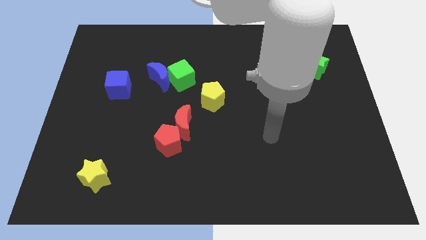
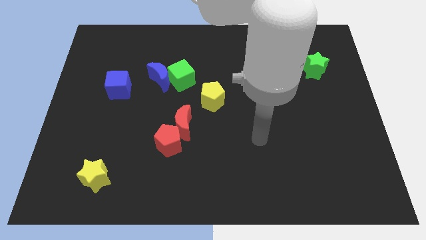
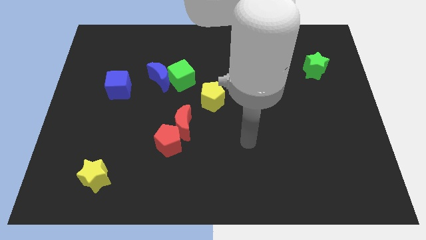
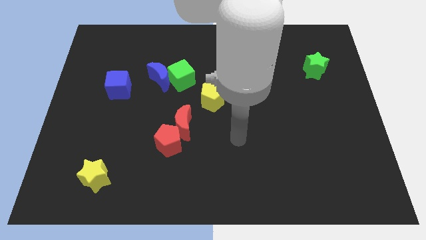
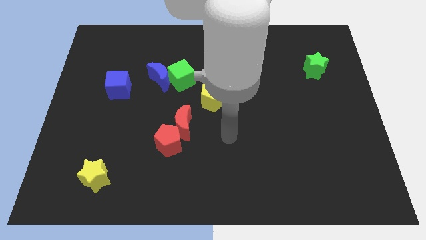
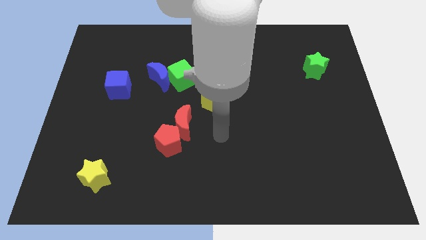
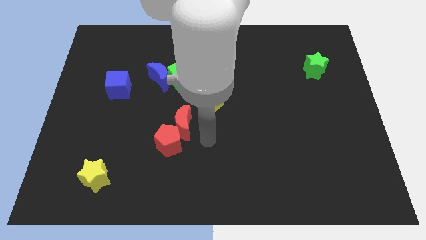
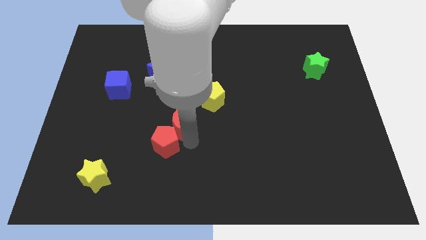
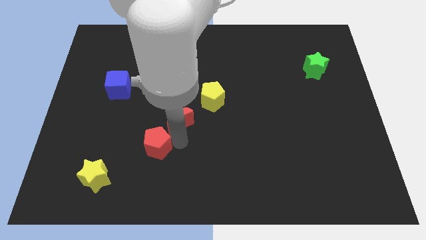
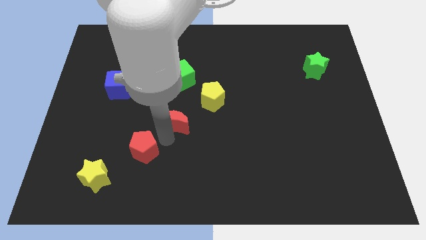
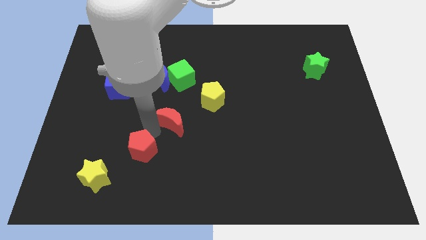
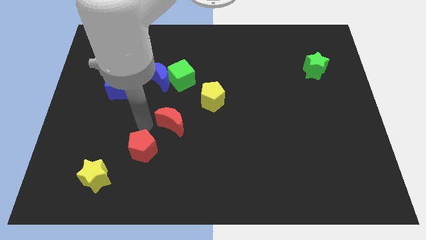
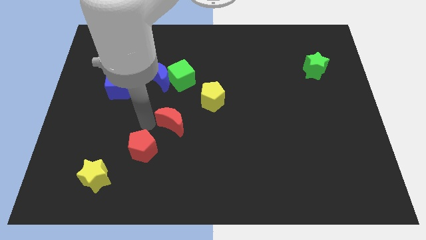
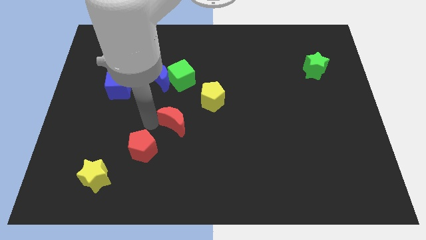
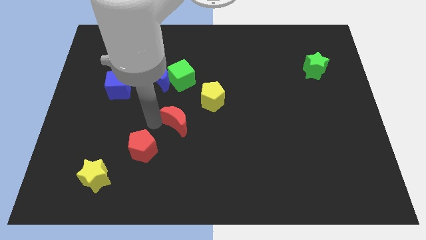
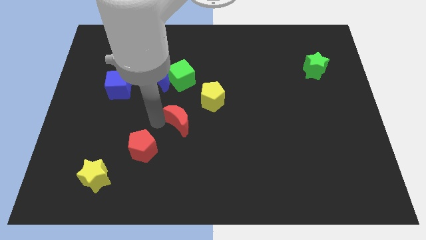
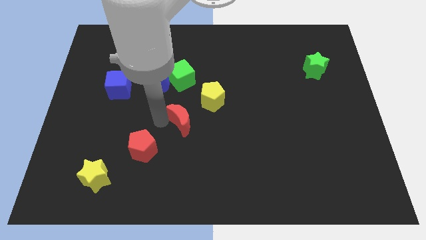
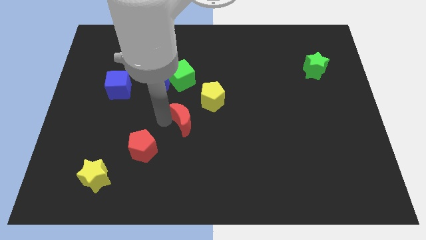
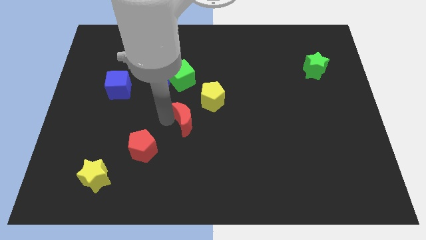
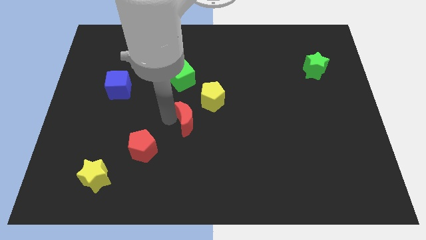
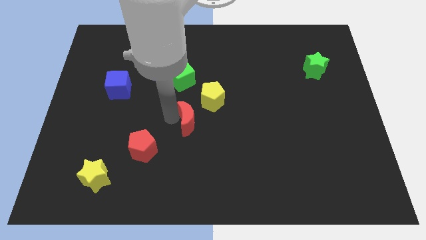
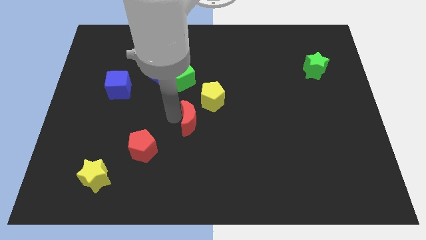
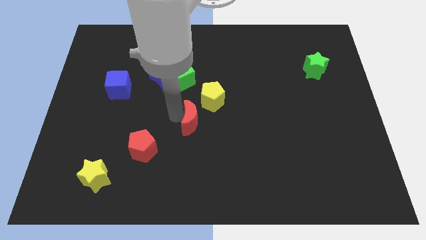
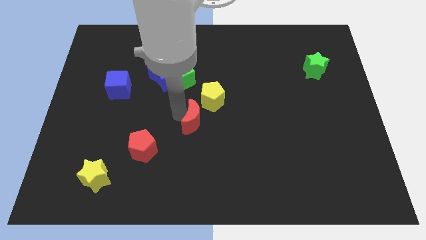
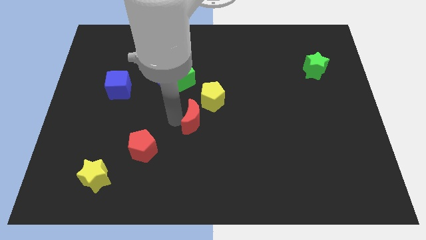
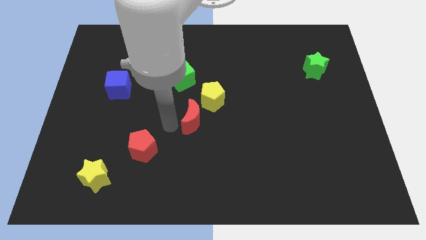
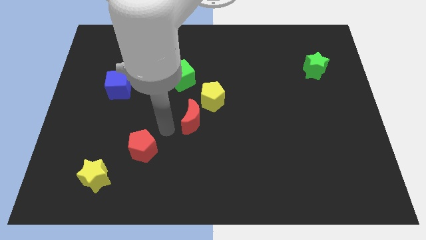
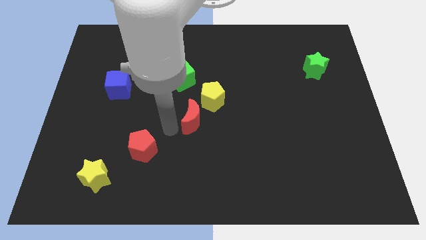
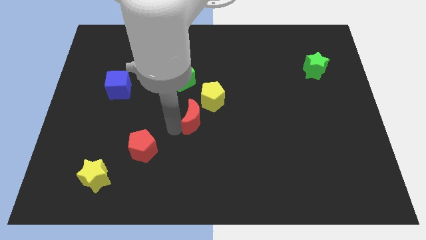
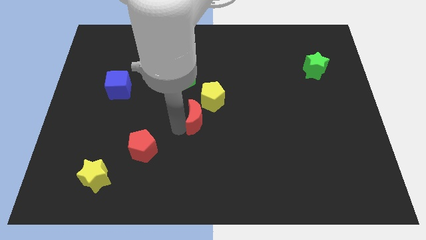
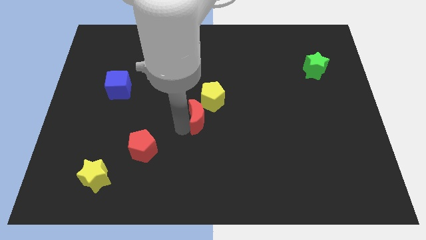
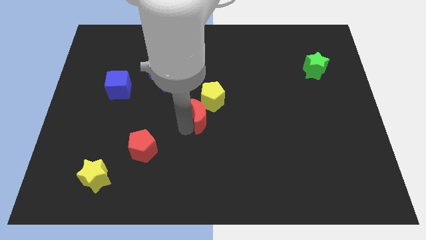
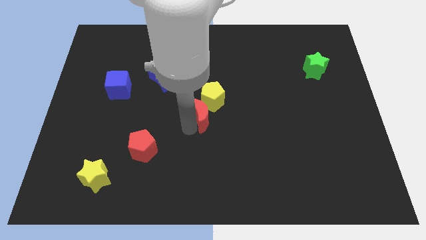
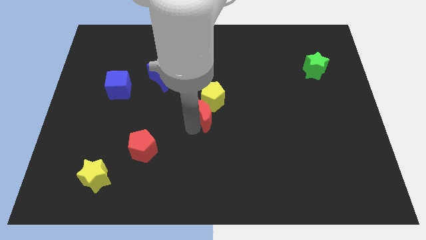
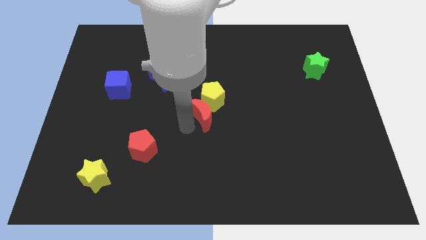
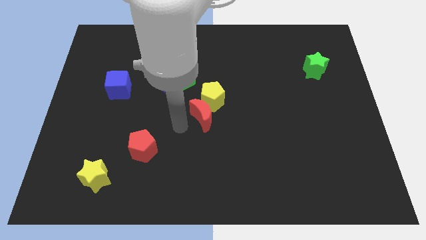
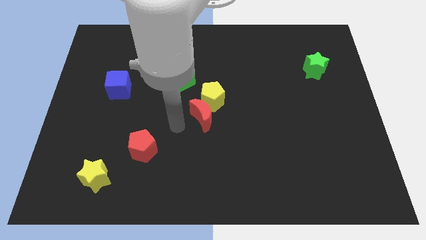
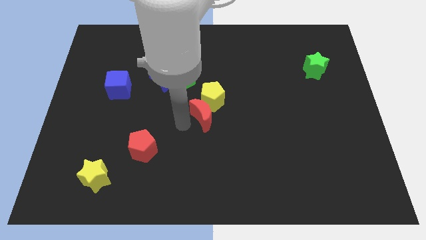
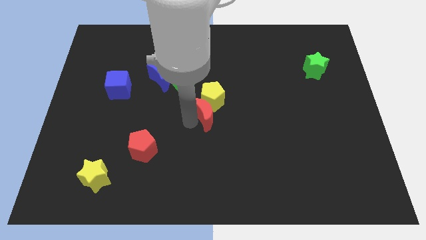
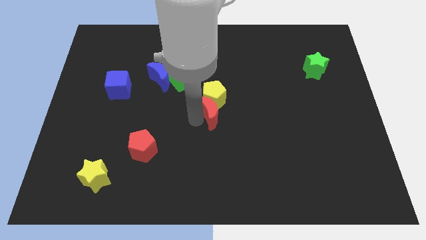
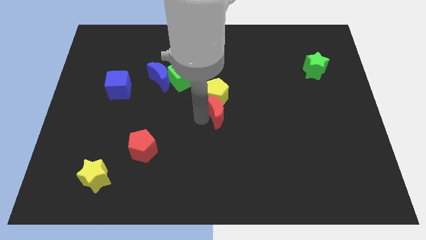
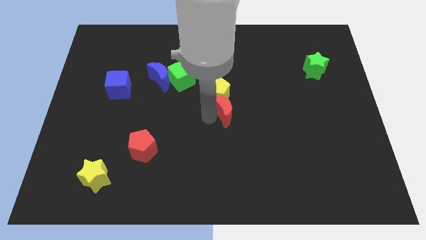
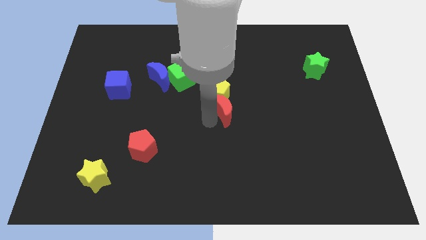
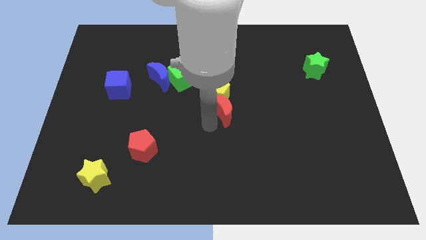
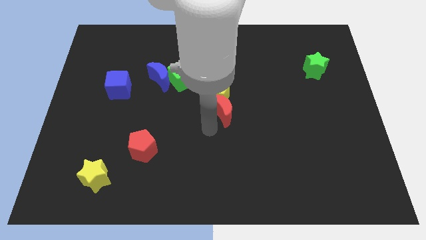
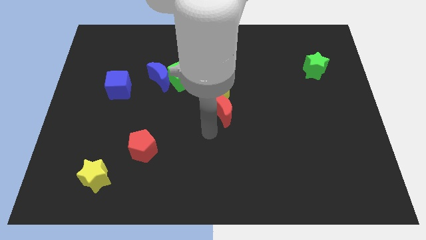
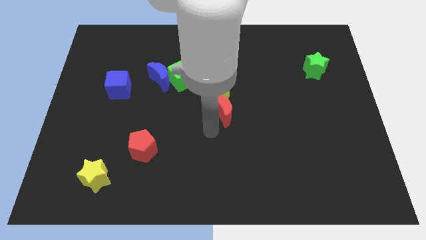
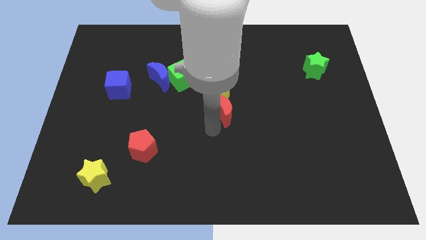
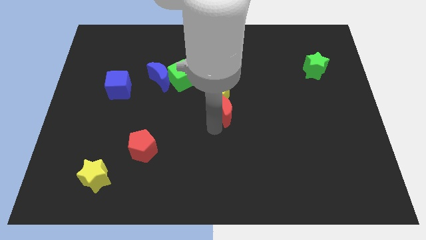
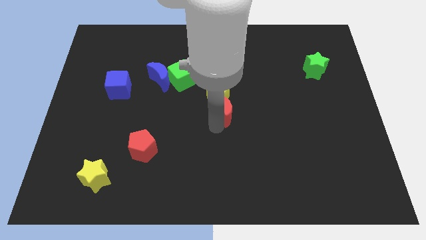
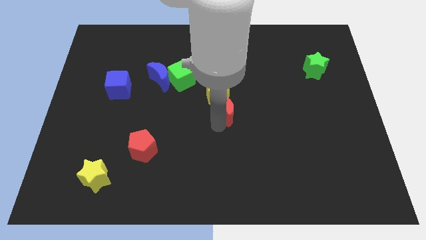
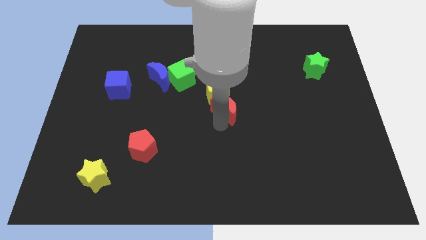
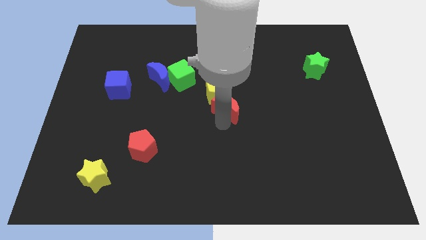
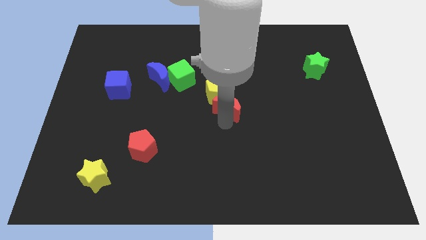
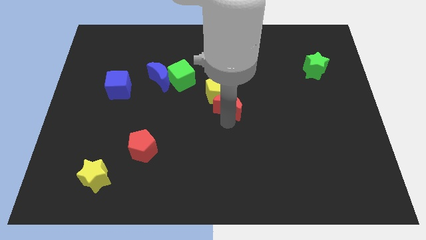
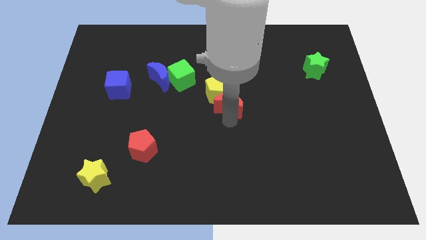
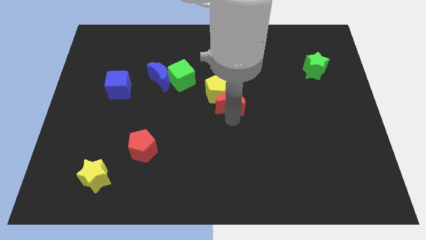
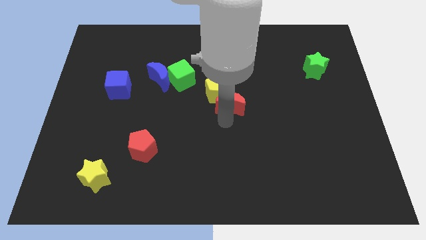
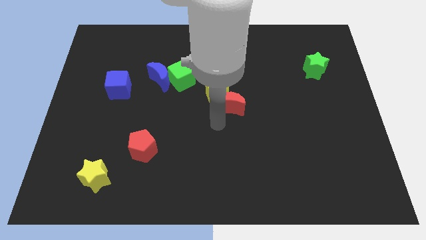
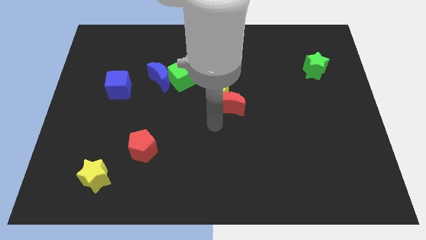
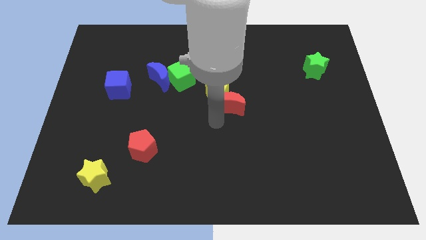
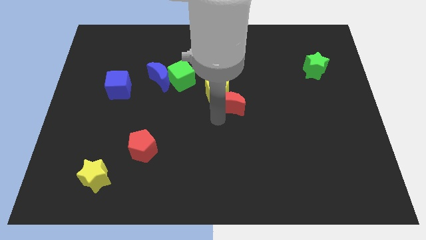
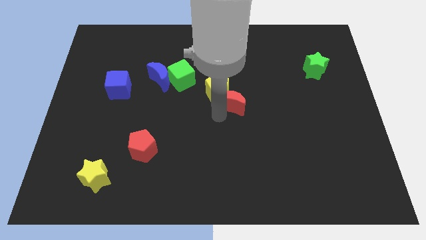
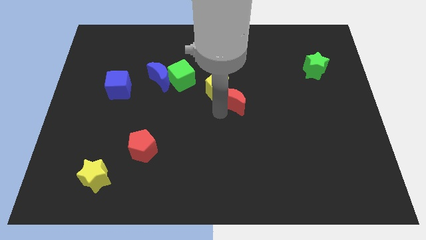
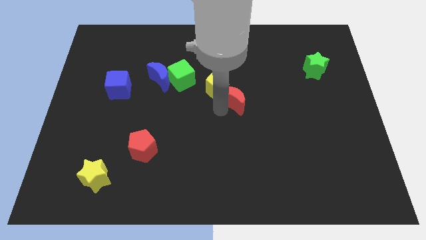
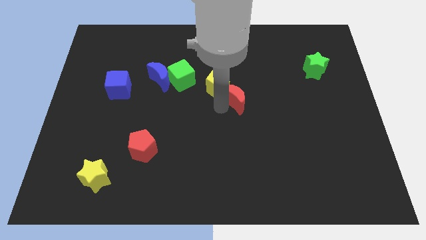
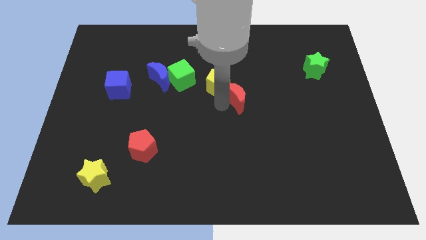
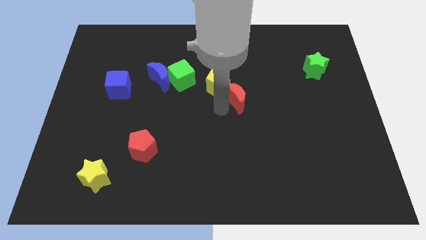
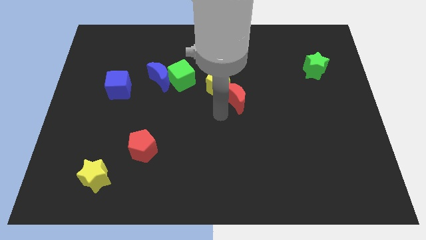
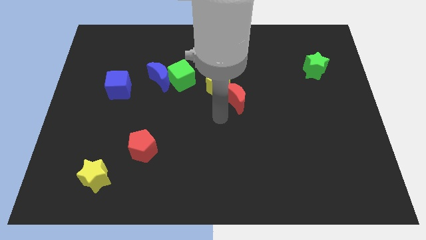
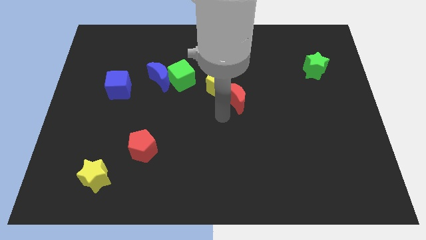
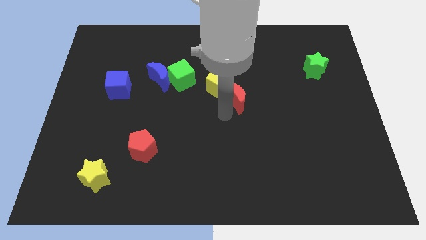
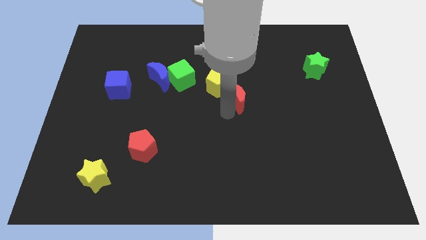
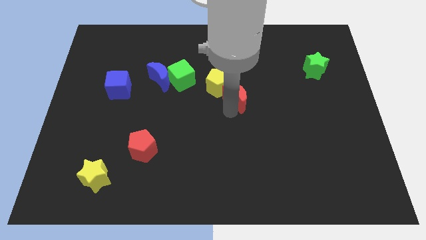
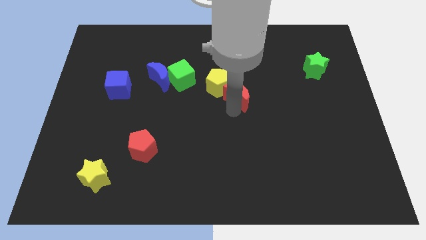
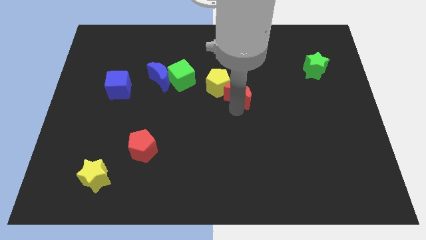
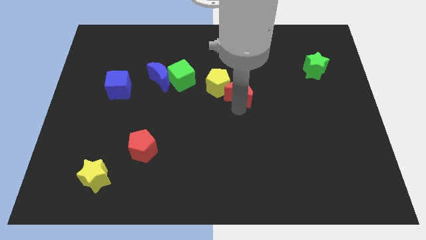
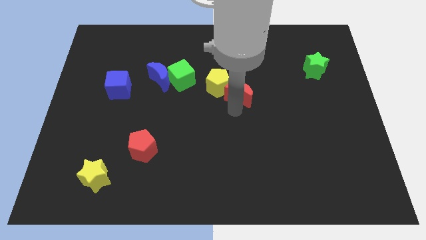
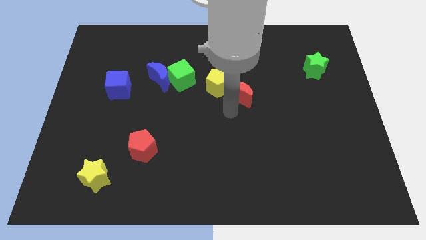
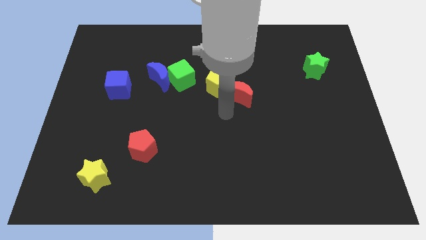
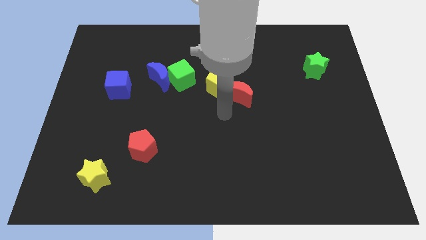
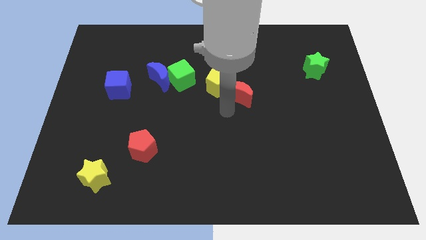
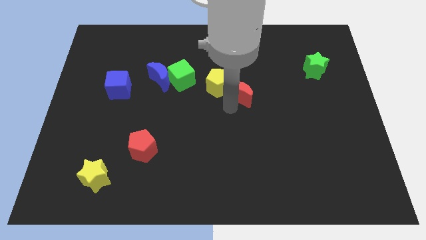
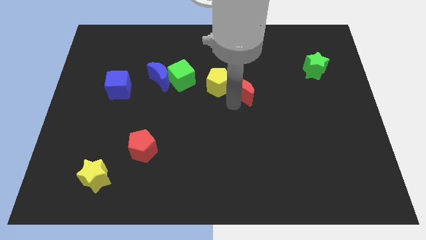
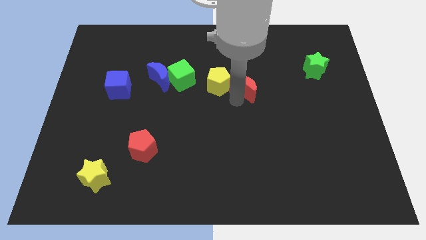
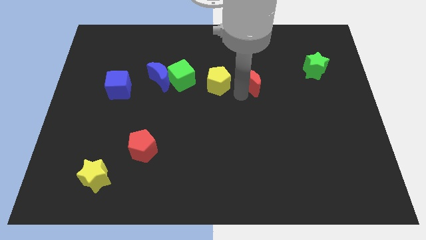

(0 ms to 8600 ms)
slide the red moon up and to the right
